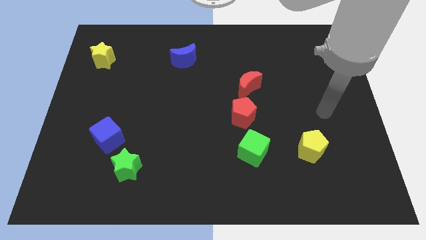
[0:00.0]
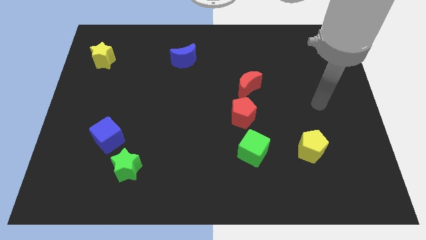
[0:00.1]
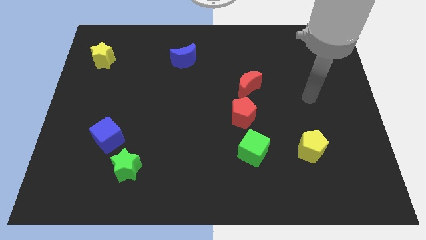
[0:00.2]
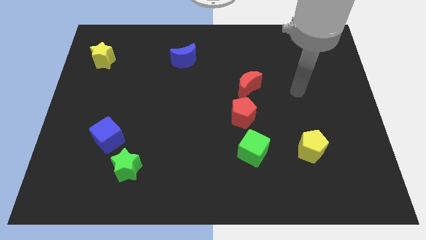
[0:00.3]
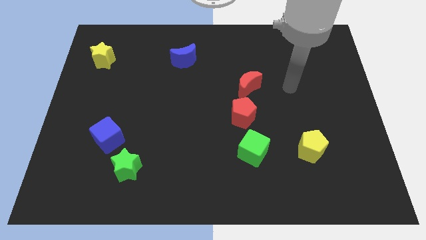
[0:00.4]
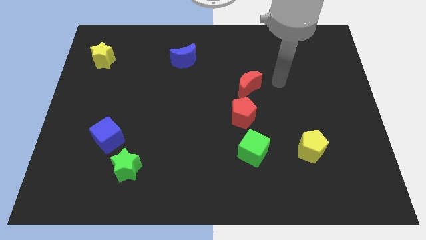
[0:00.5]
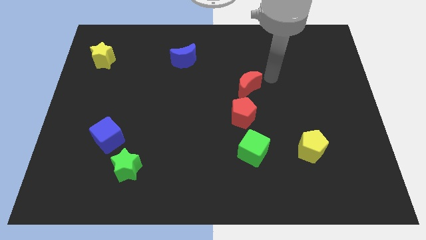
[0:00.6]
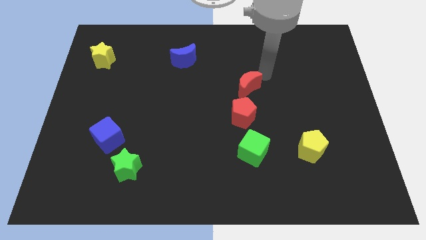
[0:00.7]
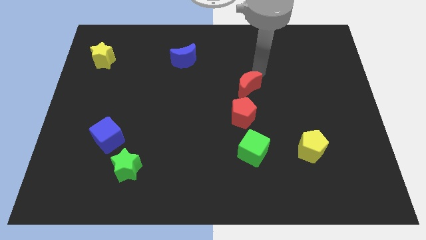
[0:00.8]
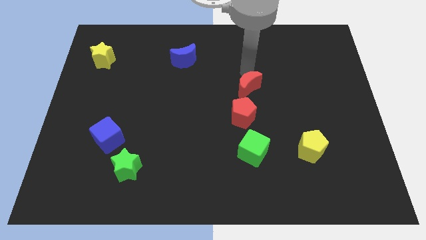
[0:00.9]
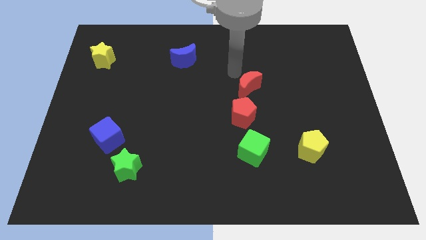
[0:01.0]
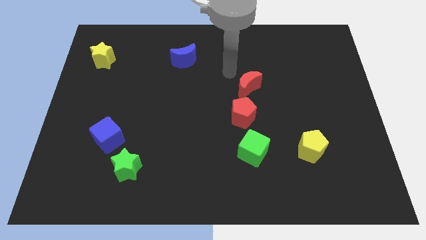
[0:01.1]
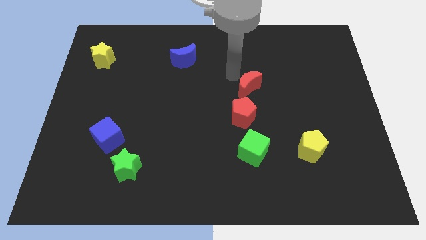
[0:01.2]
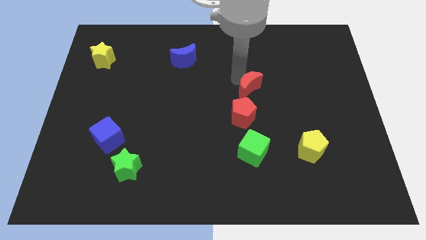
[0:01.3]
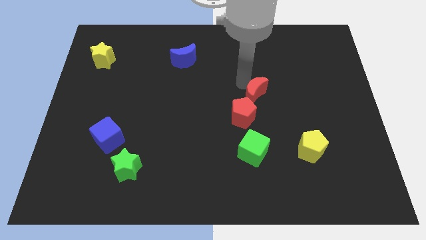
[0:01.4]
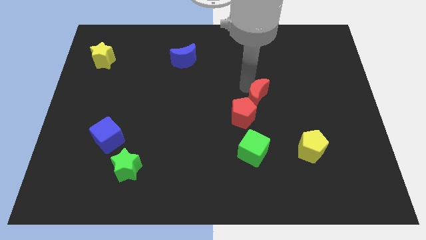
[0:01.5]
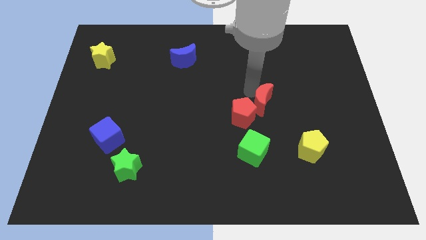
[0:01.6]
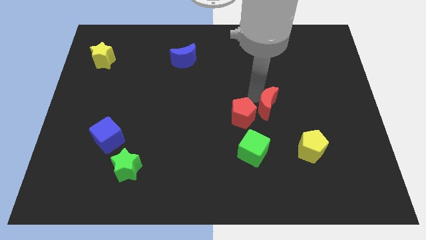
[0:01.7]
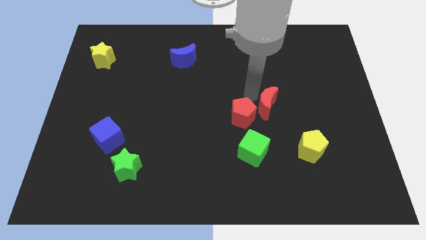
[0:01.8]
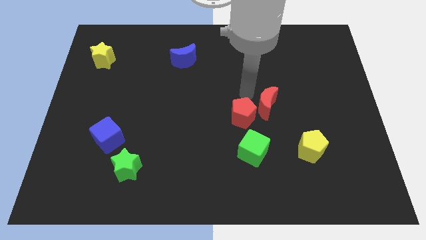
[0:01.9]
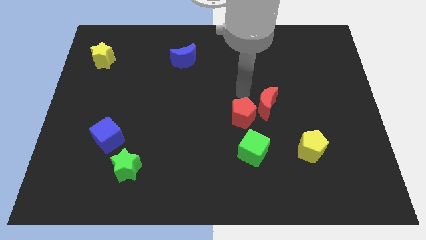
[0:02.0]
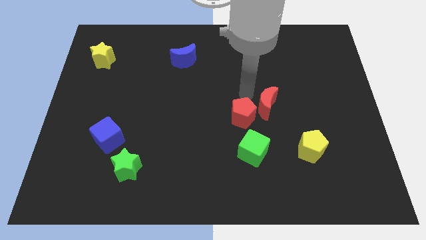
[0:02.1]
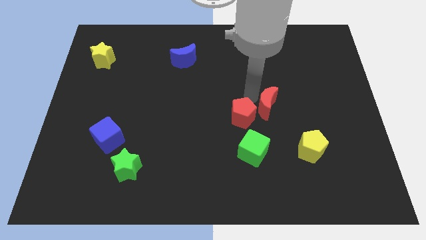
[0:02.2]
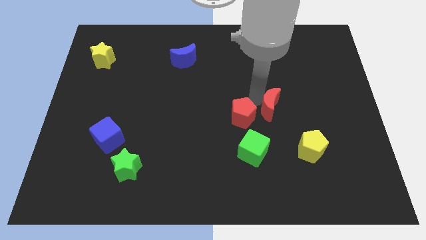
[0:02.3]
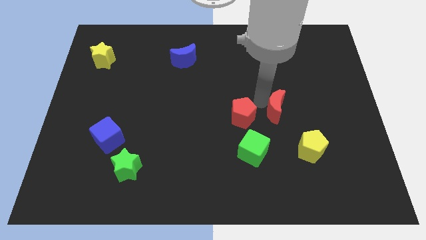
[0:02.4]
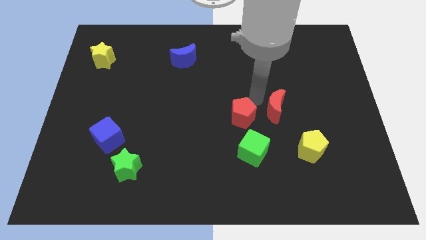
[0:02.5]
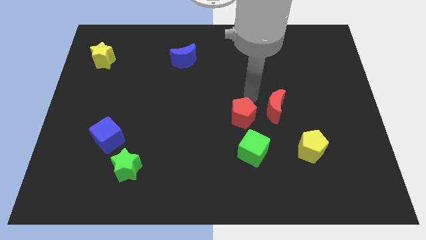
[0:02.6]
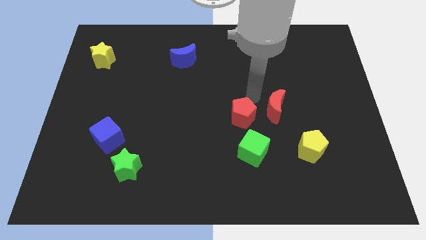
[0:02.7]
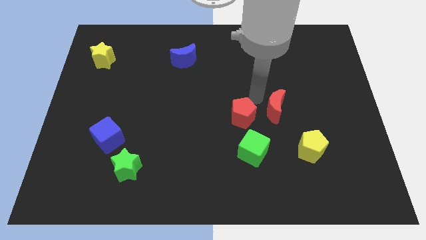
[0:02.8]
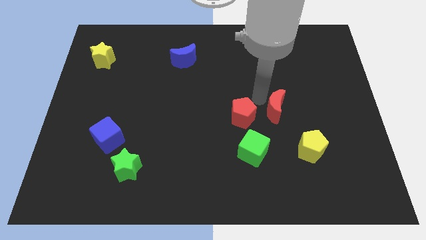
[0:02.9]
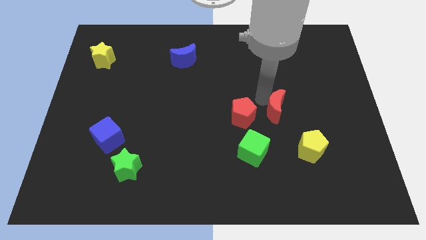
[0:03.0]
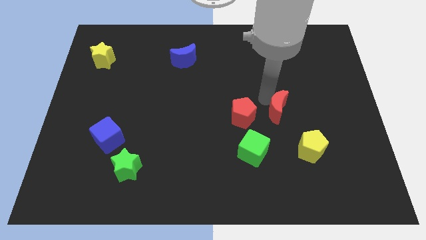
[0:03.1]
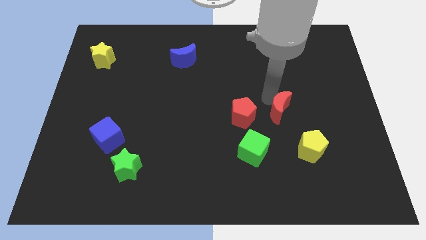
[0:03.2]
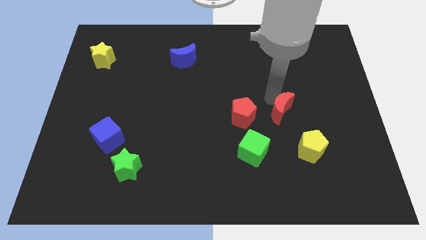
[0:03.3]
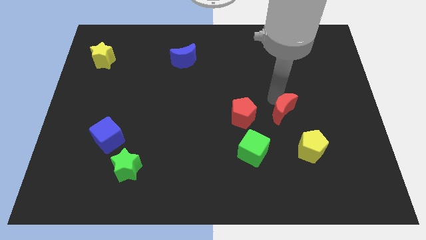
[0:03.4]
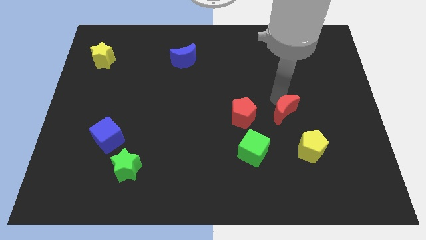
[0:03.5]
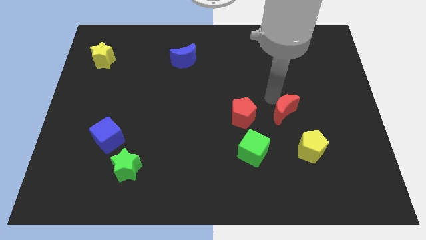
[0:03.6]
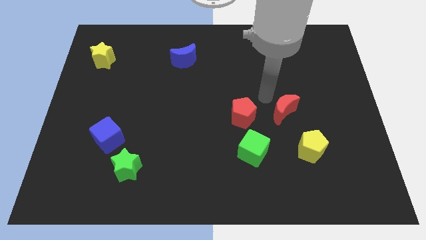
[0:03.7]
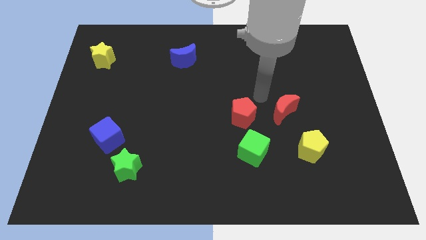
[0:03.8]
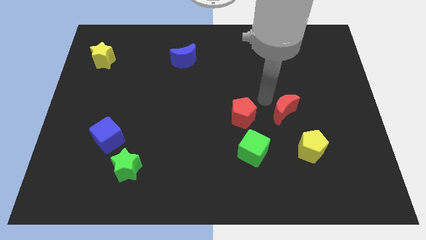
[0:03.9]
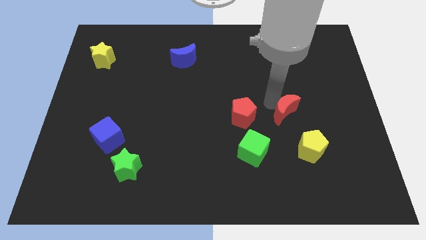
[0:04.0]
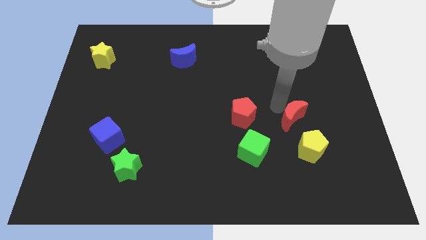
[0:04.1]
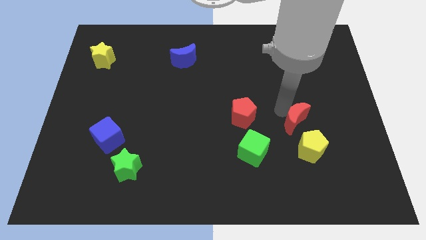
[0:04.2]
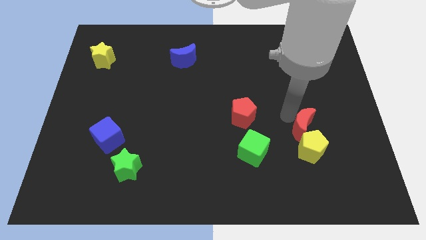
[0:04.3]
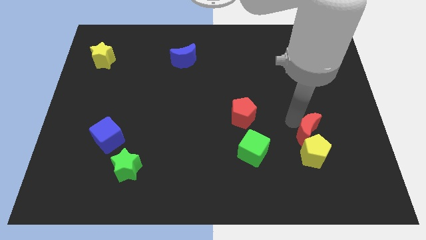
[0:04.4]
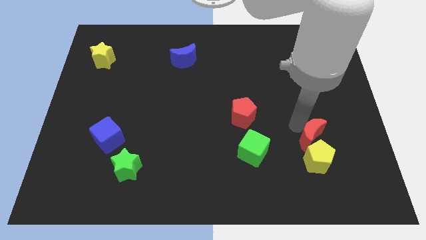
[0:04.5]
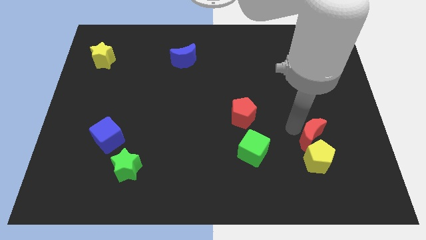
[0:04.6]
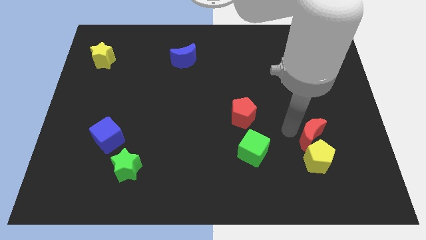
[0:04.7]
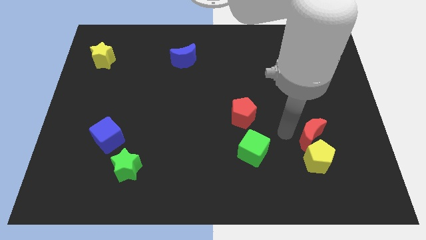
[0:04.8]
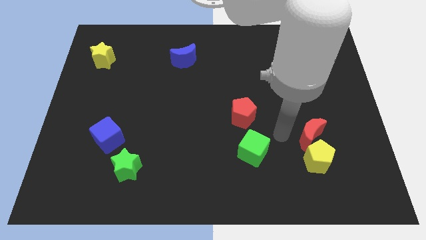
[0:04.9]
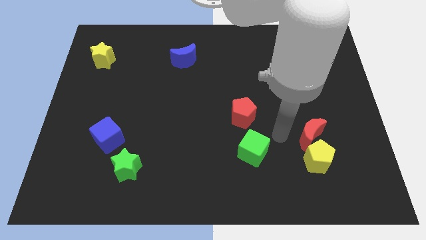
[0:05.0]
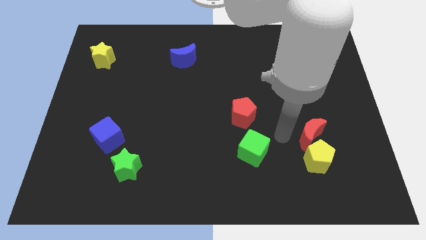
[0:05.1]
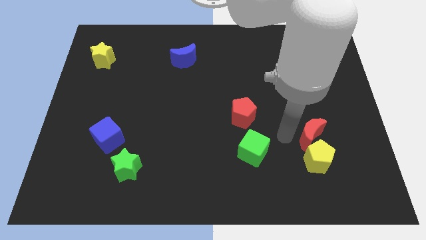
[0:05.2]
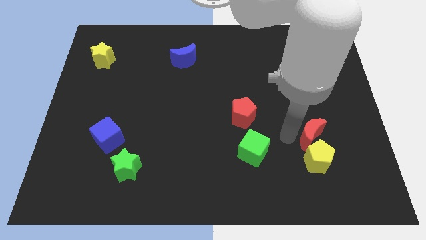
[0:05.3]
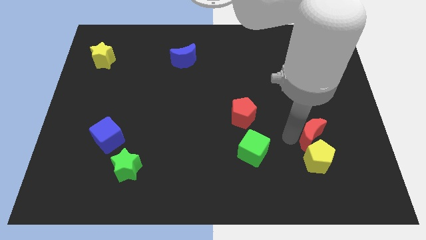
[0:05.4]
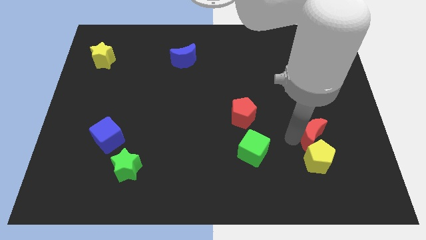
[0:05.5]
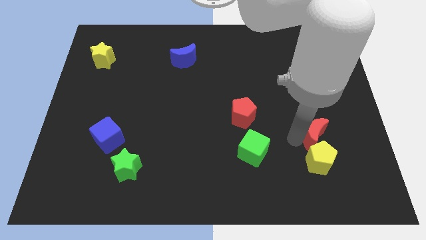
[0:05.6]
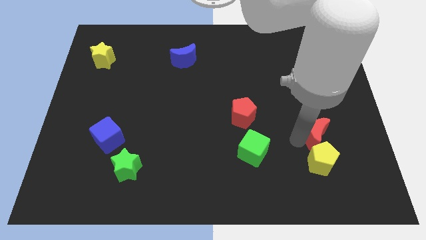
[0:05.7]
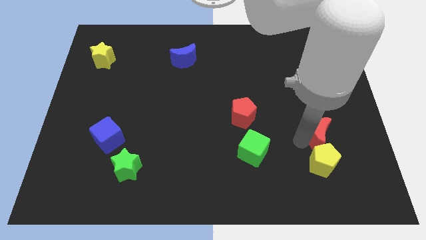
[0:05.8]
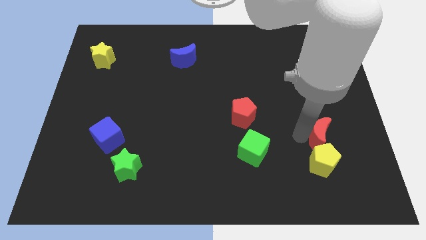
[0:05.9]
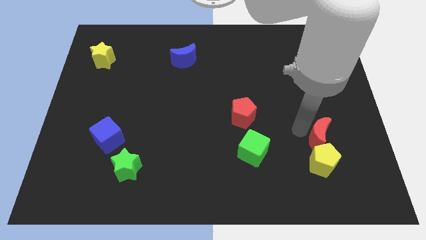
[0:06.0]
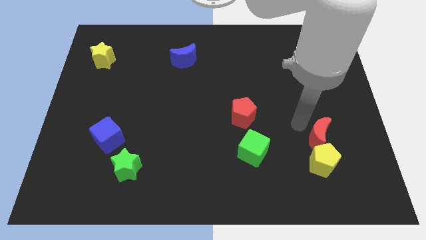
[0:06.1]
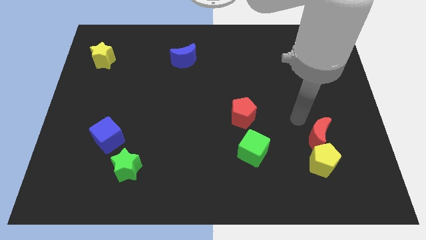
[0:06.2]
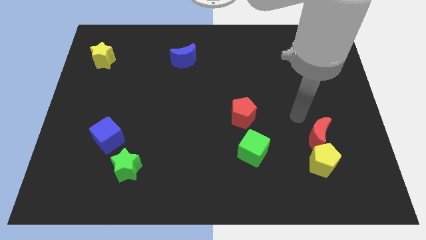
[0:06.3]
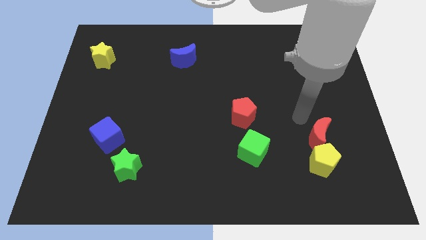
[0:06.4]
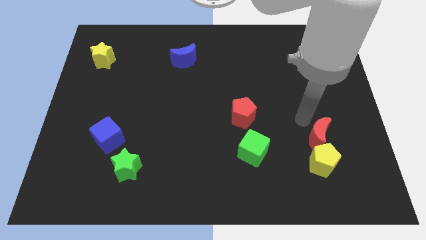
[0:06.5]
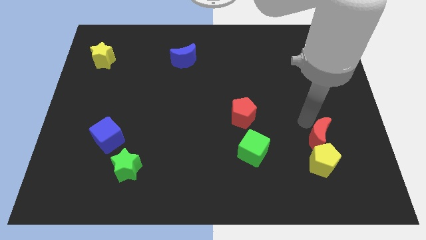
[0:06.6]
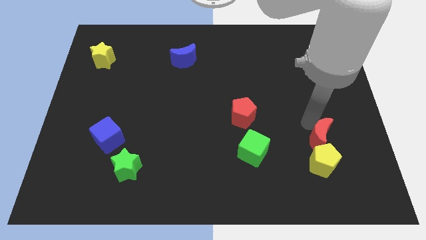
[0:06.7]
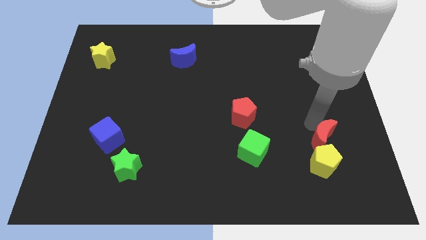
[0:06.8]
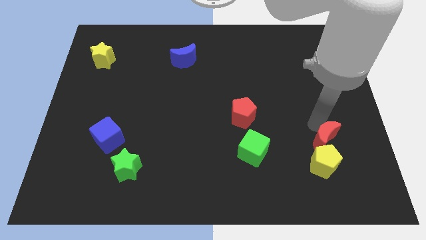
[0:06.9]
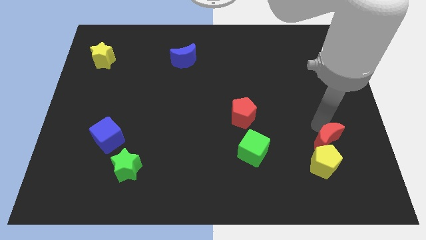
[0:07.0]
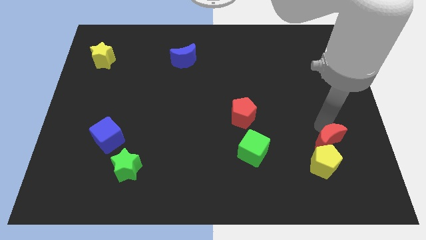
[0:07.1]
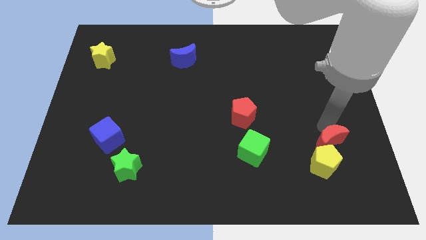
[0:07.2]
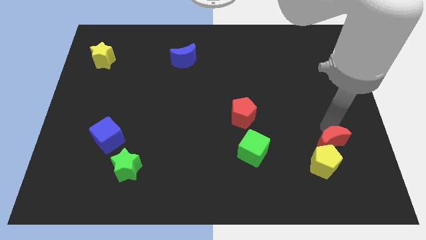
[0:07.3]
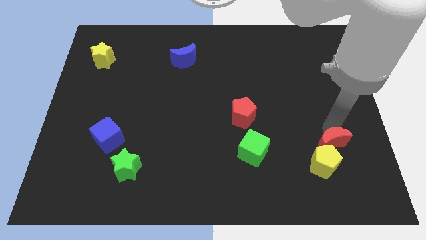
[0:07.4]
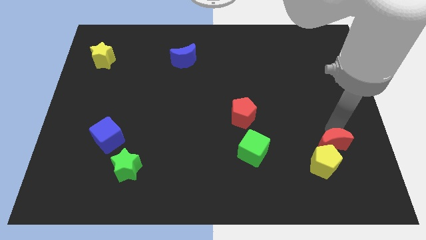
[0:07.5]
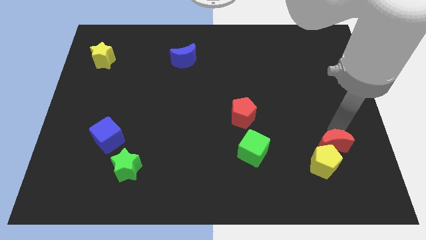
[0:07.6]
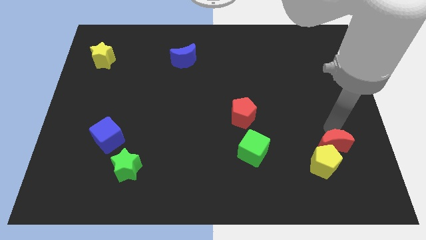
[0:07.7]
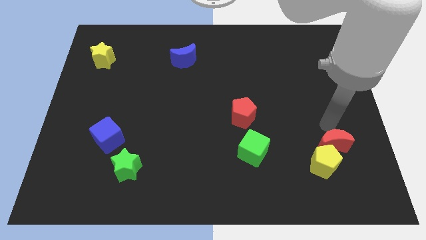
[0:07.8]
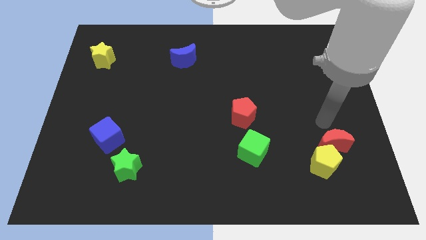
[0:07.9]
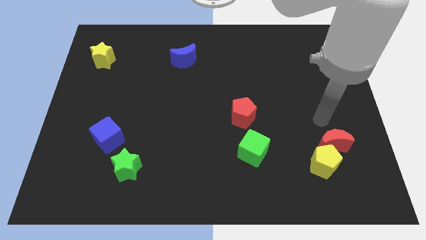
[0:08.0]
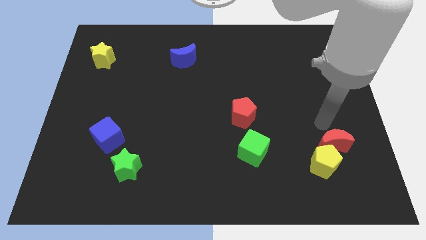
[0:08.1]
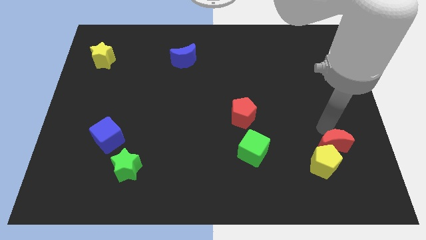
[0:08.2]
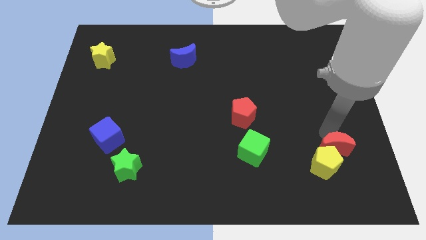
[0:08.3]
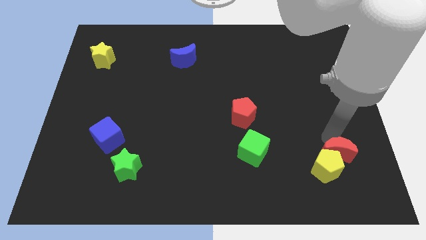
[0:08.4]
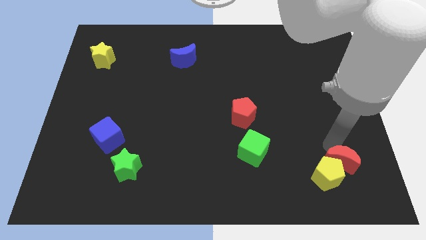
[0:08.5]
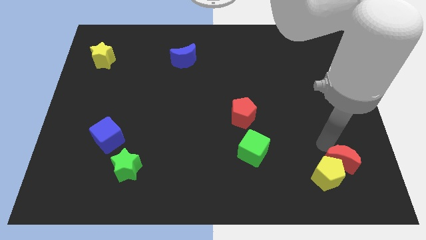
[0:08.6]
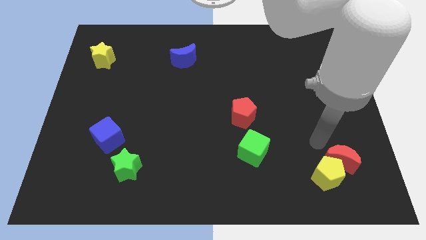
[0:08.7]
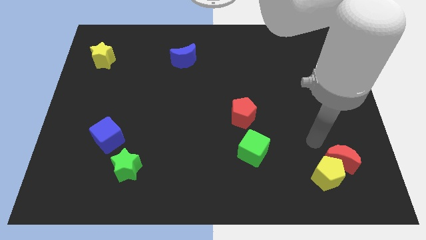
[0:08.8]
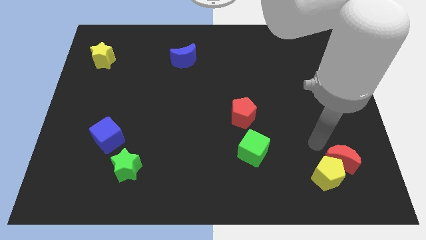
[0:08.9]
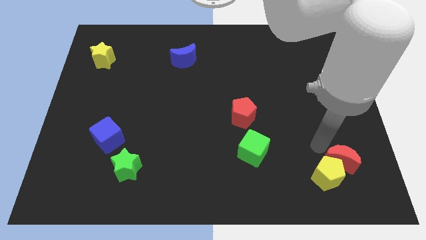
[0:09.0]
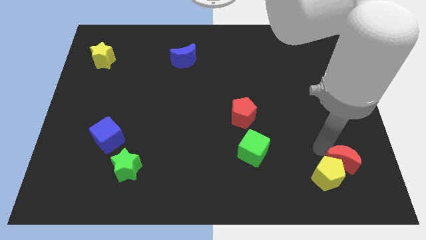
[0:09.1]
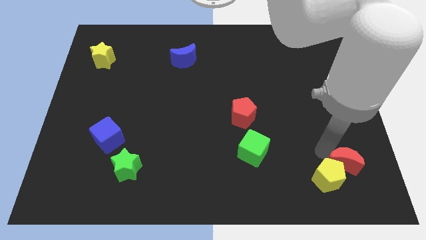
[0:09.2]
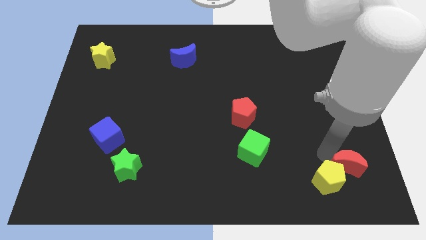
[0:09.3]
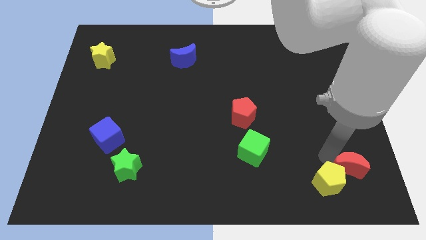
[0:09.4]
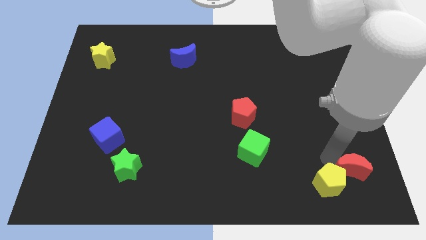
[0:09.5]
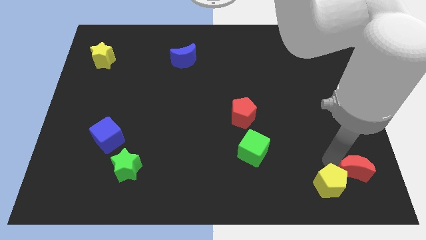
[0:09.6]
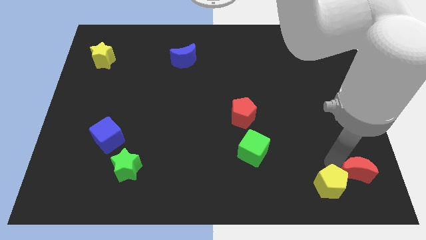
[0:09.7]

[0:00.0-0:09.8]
push the red moon to the bottom right of the board
